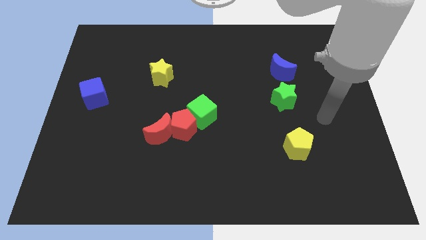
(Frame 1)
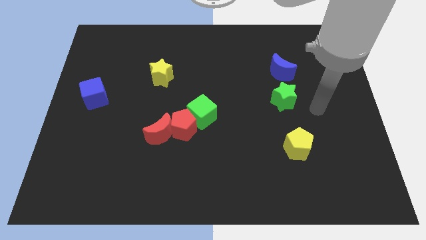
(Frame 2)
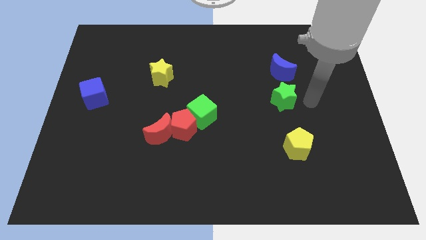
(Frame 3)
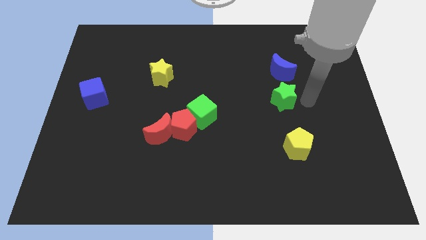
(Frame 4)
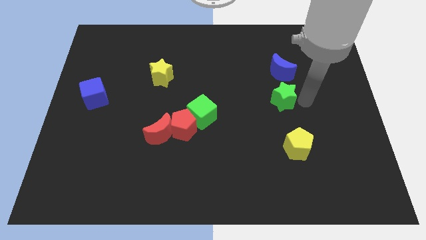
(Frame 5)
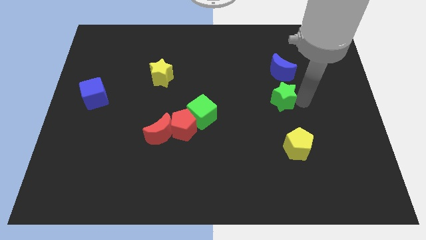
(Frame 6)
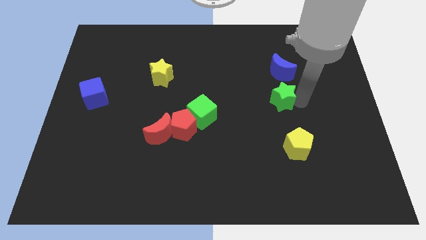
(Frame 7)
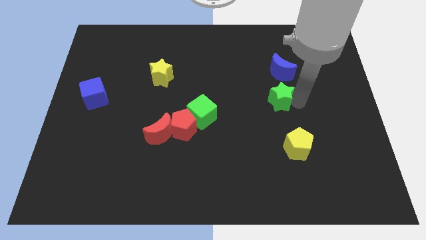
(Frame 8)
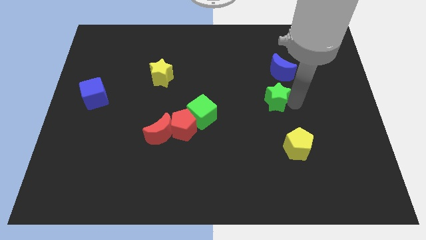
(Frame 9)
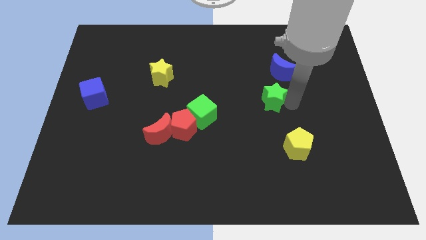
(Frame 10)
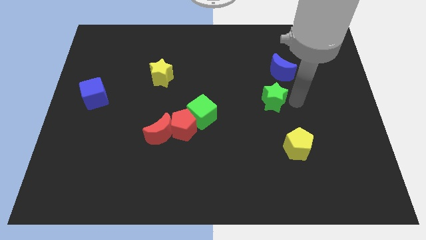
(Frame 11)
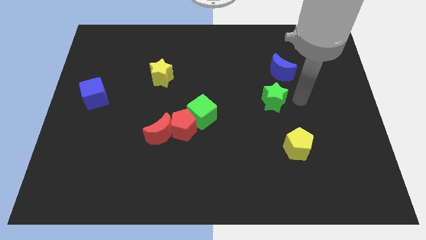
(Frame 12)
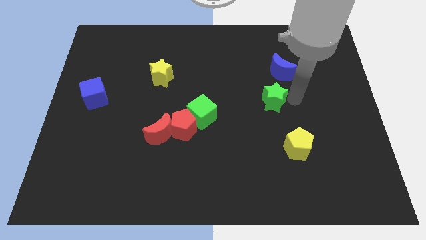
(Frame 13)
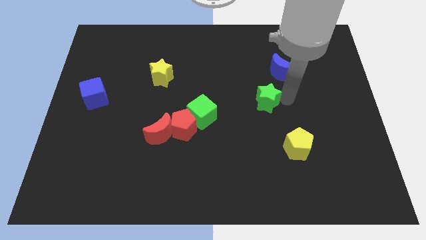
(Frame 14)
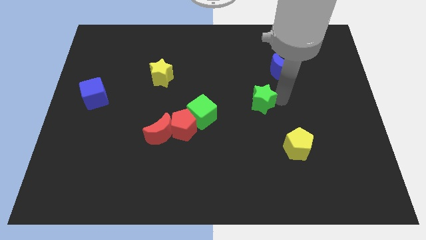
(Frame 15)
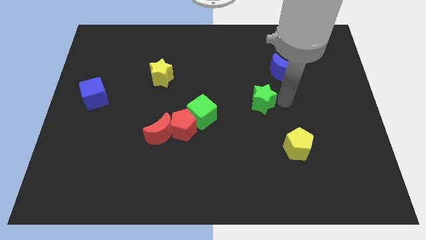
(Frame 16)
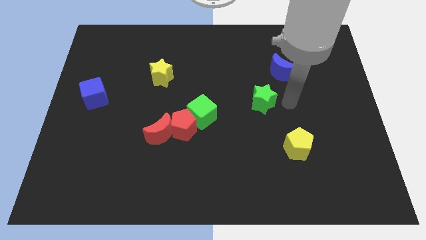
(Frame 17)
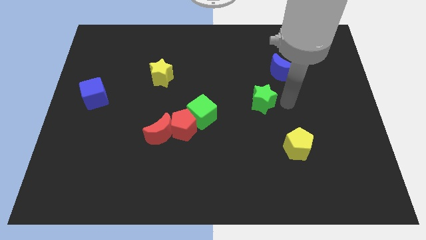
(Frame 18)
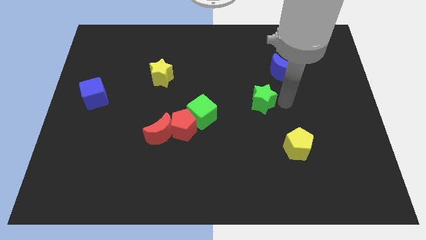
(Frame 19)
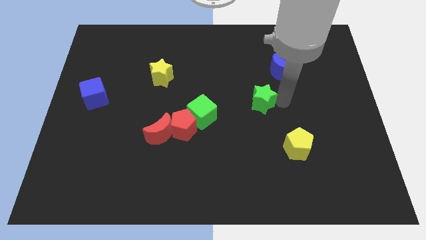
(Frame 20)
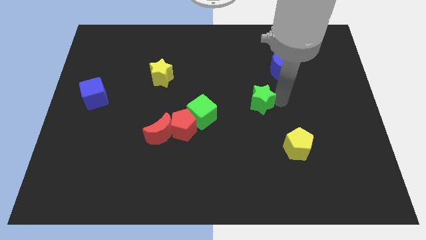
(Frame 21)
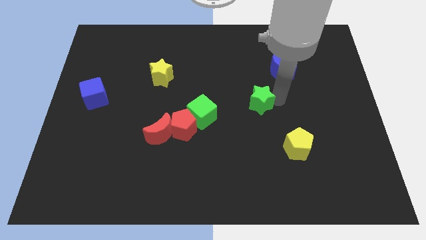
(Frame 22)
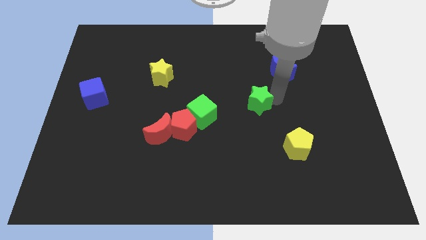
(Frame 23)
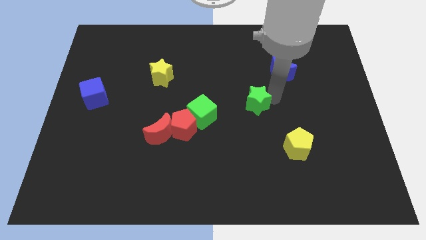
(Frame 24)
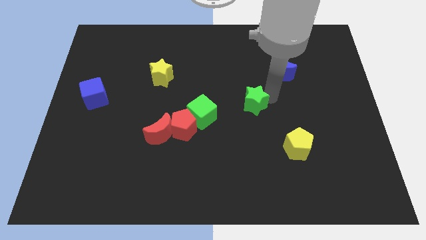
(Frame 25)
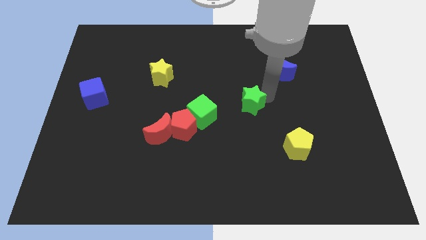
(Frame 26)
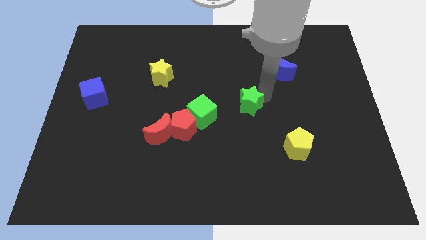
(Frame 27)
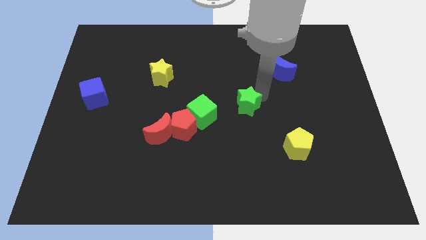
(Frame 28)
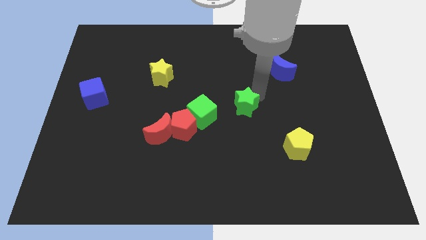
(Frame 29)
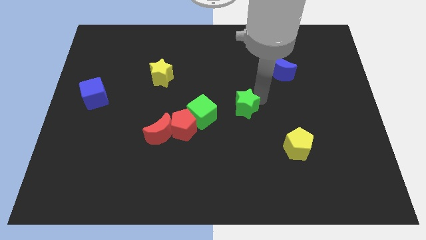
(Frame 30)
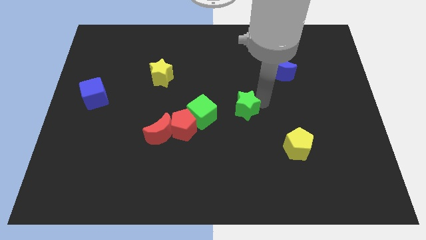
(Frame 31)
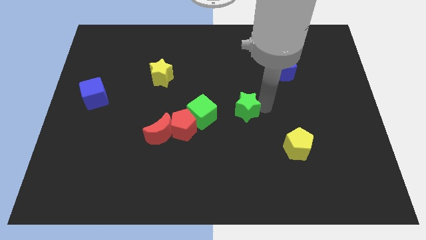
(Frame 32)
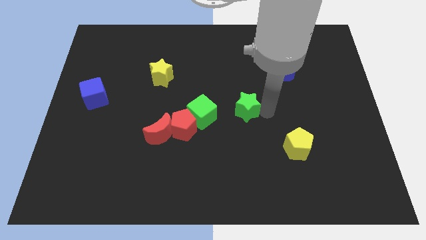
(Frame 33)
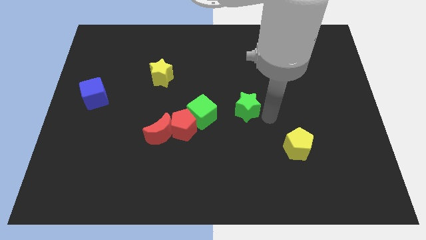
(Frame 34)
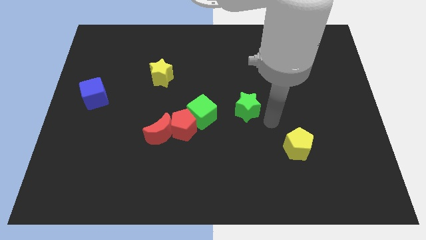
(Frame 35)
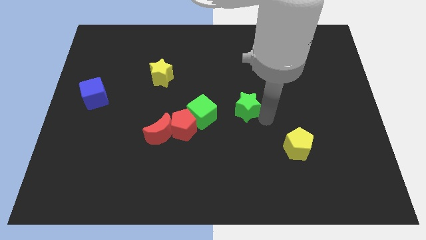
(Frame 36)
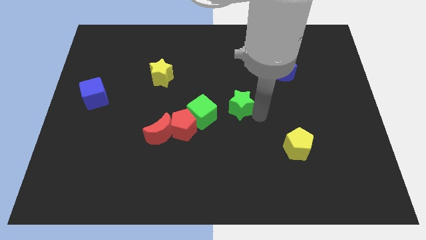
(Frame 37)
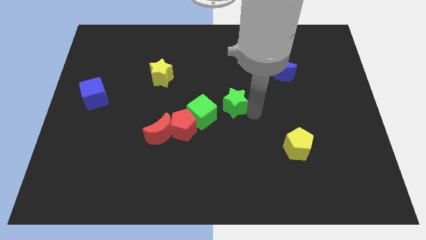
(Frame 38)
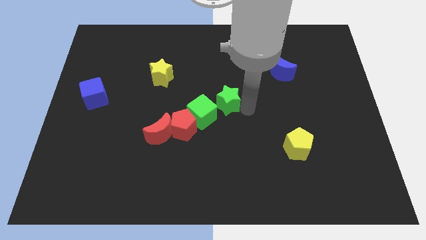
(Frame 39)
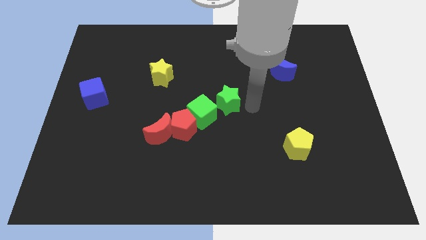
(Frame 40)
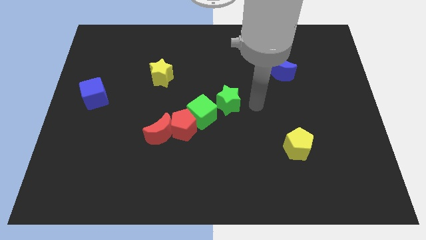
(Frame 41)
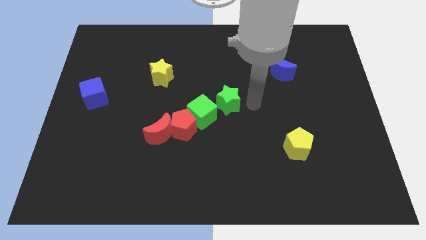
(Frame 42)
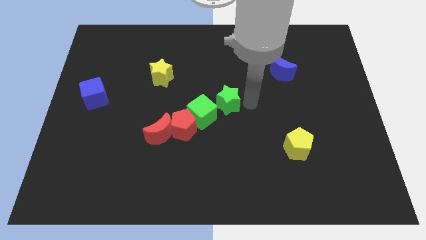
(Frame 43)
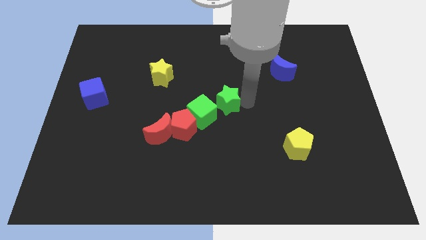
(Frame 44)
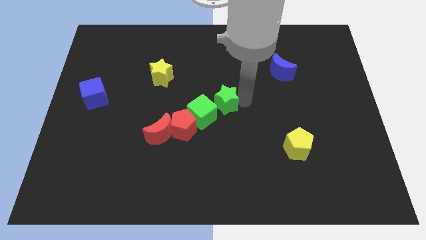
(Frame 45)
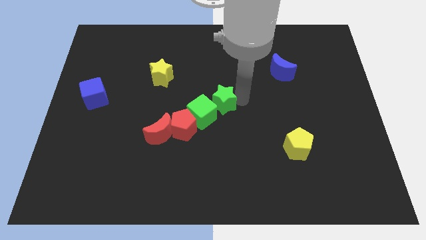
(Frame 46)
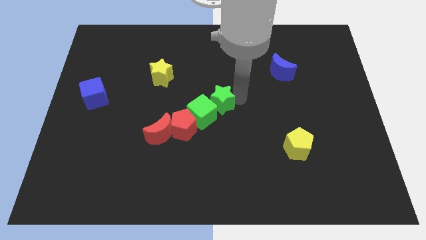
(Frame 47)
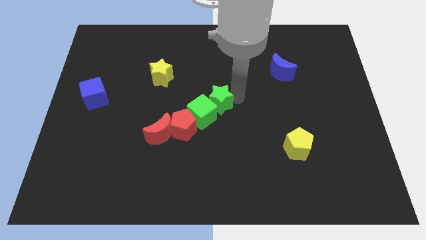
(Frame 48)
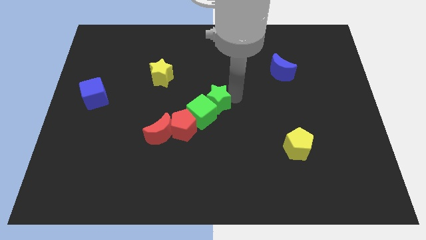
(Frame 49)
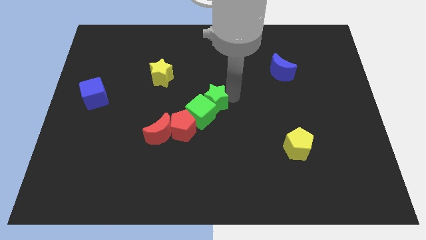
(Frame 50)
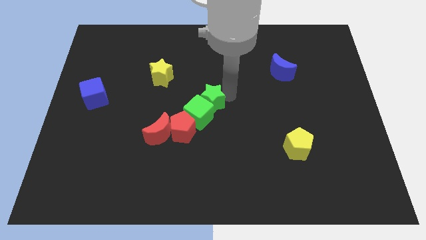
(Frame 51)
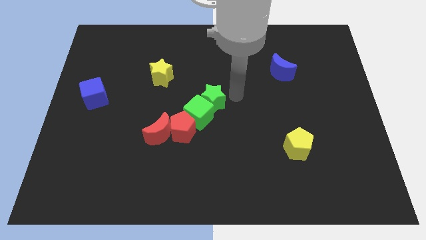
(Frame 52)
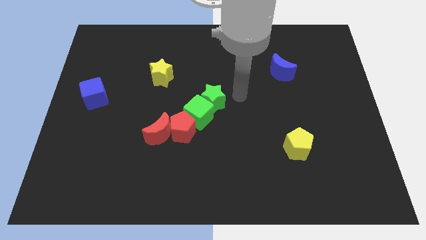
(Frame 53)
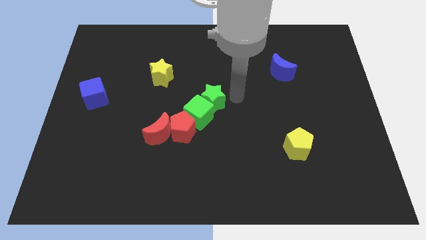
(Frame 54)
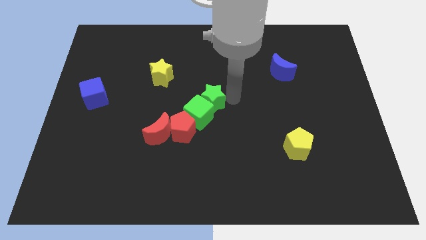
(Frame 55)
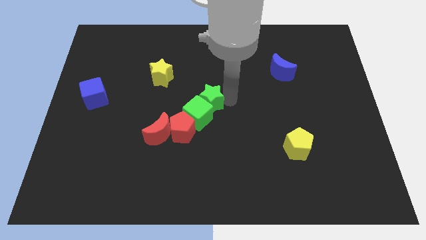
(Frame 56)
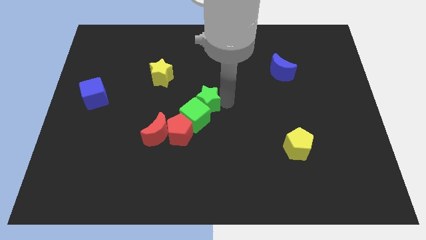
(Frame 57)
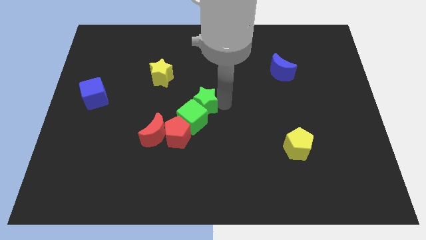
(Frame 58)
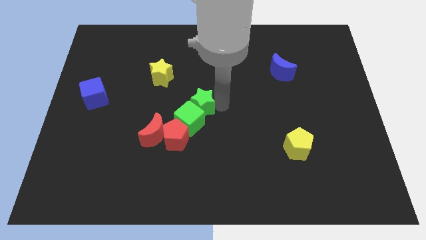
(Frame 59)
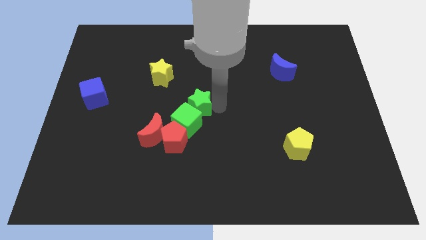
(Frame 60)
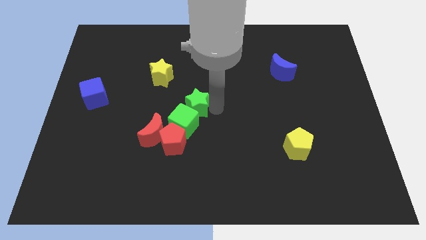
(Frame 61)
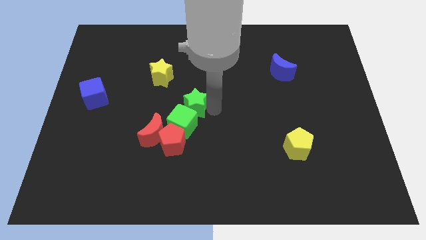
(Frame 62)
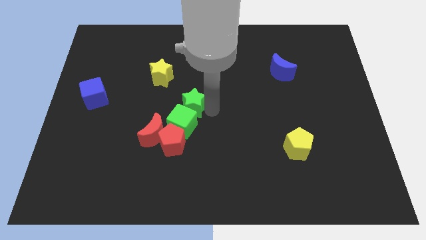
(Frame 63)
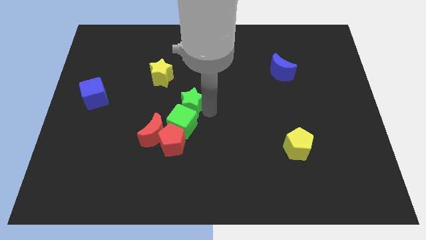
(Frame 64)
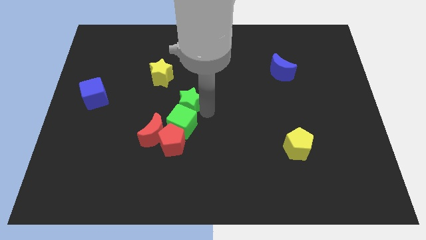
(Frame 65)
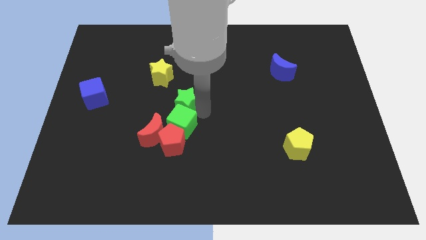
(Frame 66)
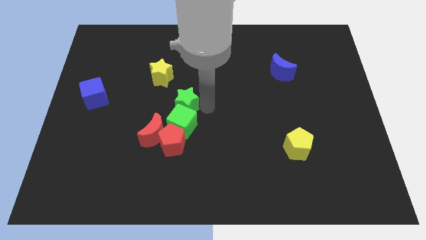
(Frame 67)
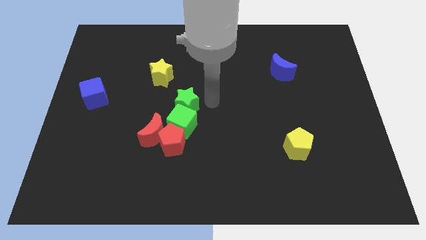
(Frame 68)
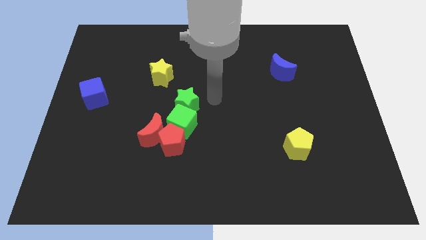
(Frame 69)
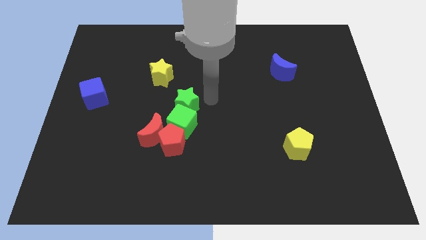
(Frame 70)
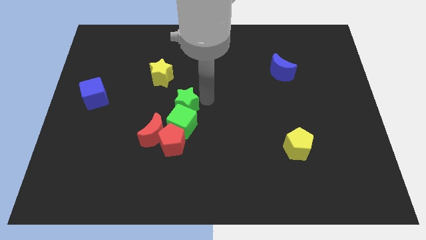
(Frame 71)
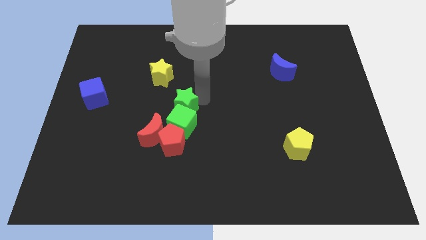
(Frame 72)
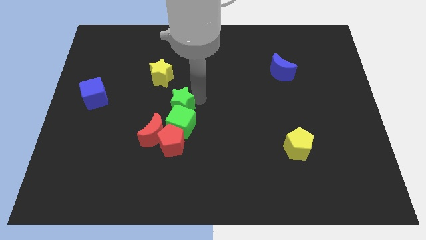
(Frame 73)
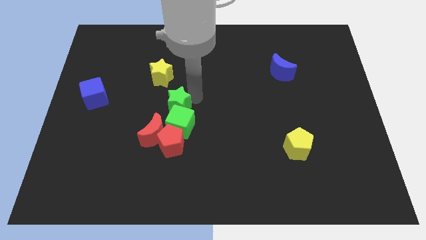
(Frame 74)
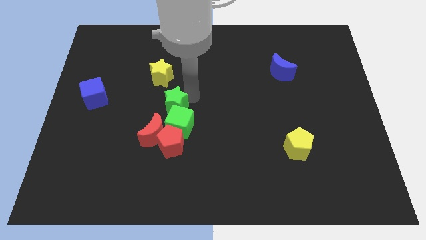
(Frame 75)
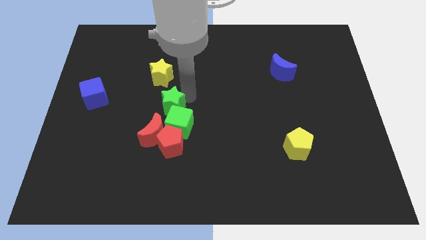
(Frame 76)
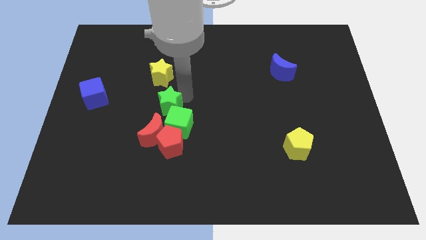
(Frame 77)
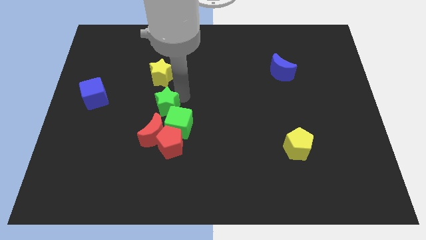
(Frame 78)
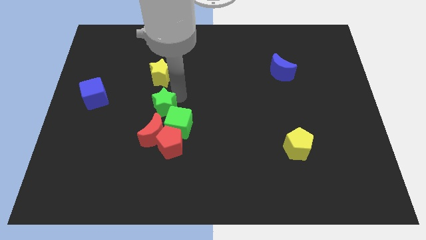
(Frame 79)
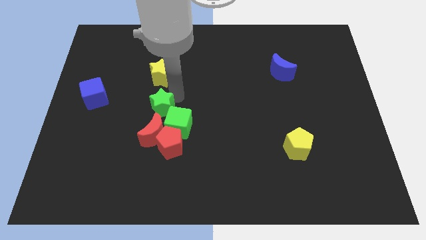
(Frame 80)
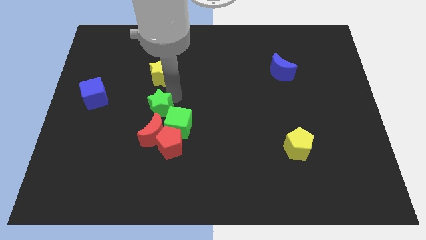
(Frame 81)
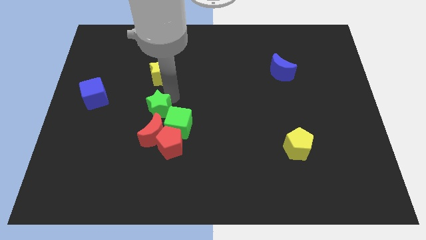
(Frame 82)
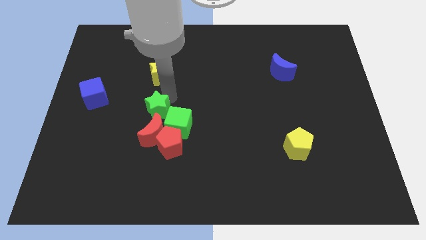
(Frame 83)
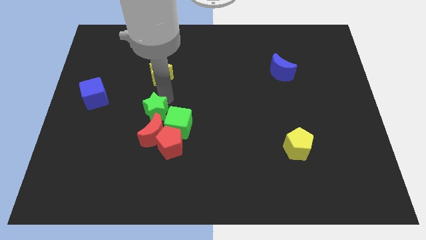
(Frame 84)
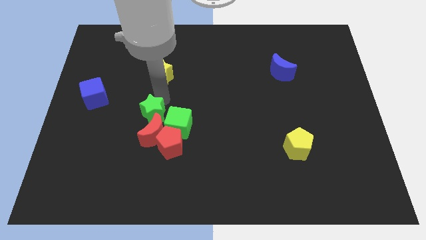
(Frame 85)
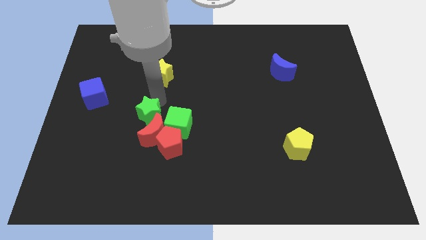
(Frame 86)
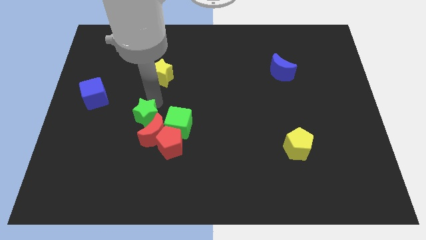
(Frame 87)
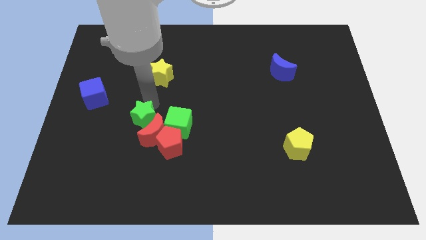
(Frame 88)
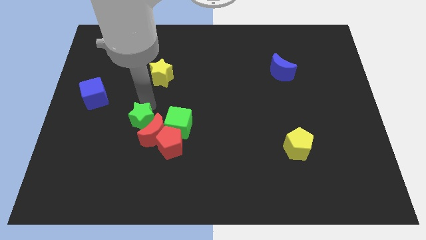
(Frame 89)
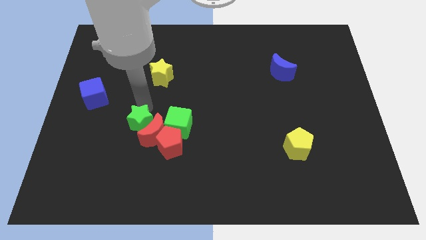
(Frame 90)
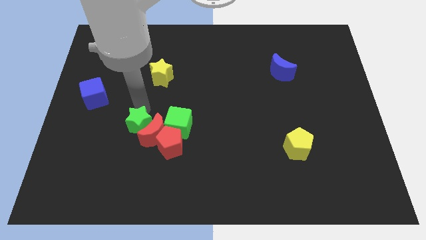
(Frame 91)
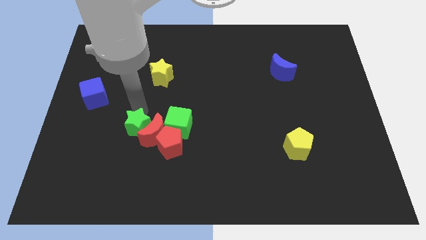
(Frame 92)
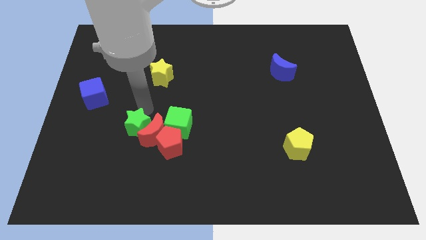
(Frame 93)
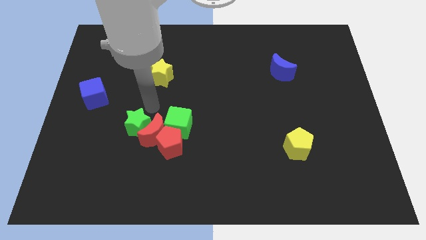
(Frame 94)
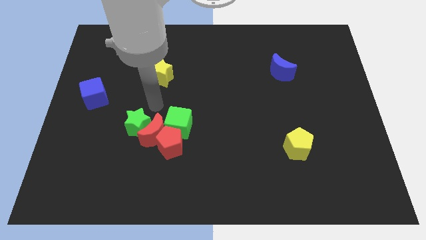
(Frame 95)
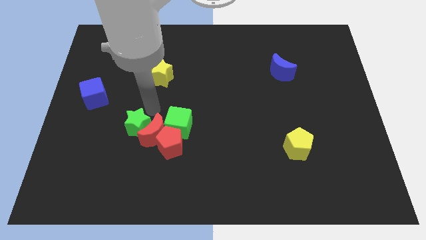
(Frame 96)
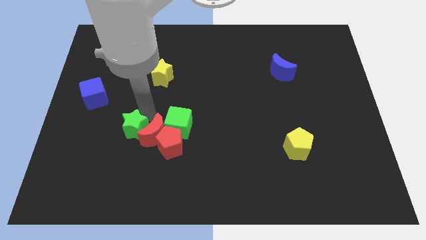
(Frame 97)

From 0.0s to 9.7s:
put the green star just left of the red pentagon
